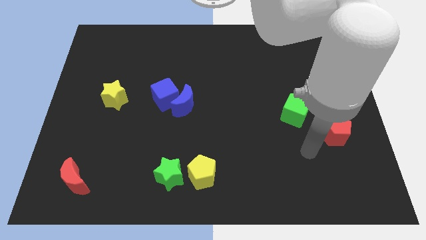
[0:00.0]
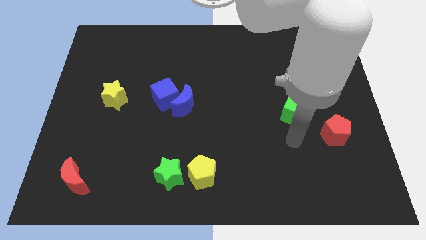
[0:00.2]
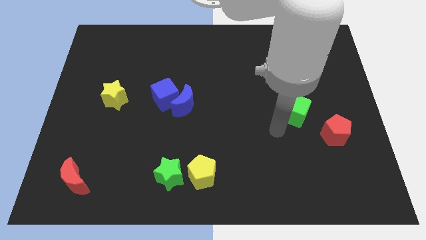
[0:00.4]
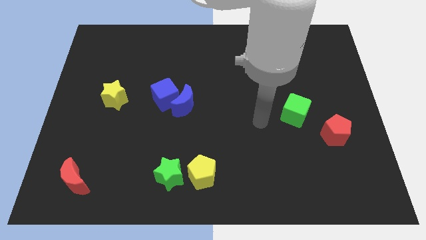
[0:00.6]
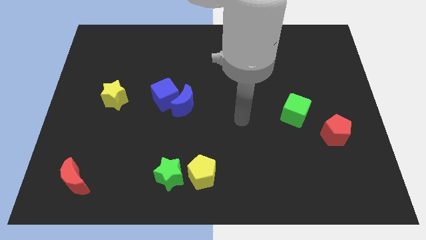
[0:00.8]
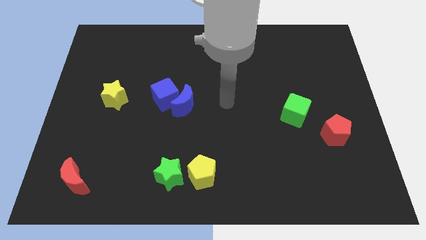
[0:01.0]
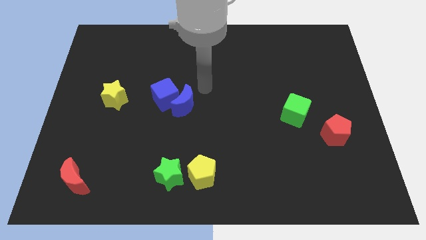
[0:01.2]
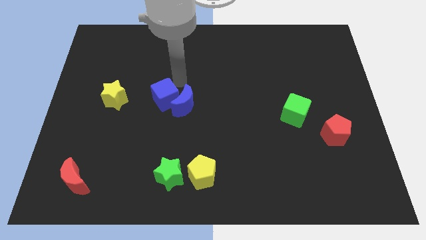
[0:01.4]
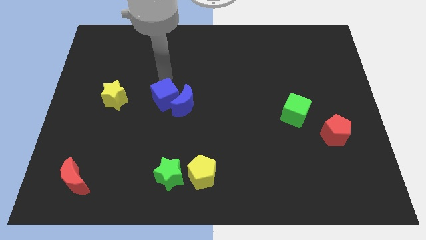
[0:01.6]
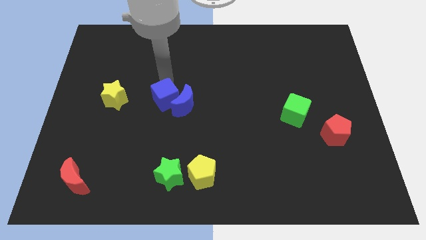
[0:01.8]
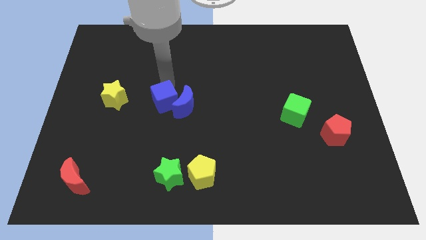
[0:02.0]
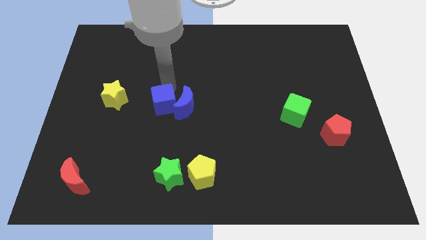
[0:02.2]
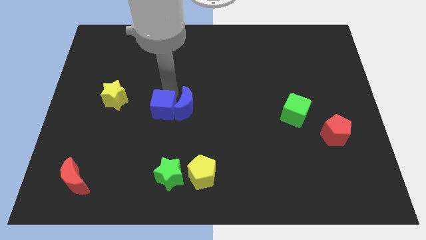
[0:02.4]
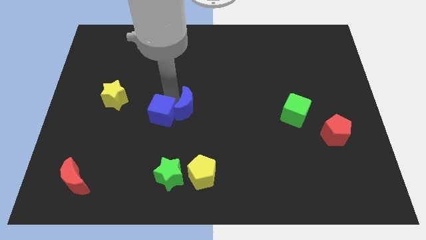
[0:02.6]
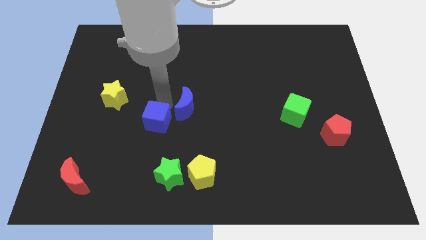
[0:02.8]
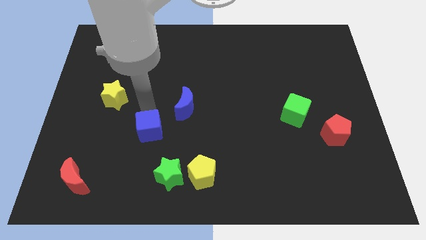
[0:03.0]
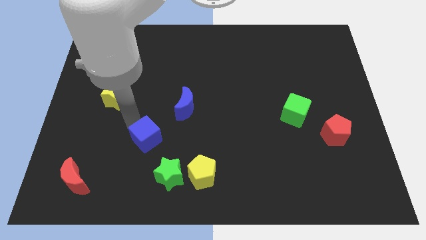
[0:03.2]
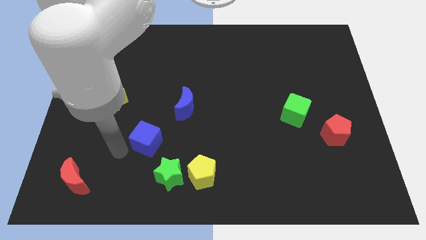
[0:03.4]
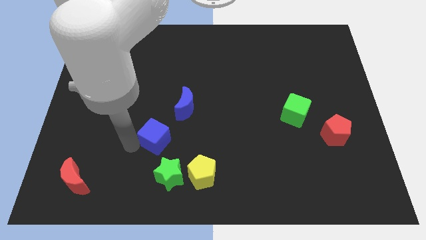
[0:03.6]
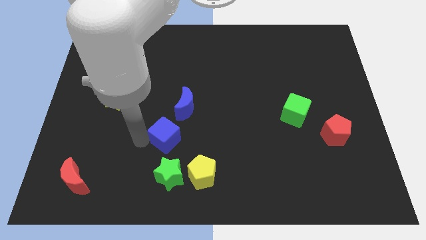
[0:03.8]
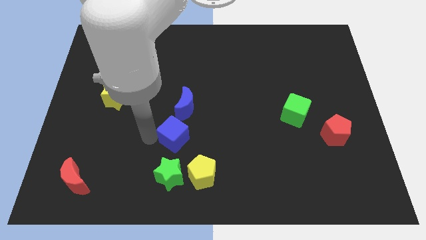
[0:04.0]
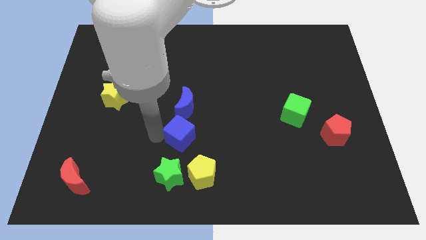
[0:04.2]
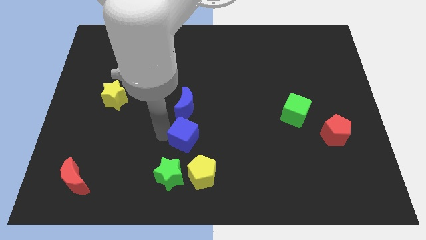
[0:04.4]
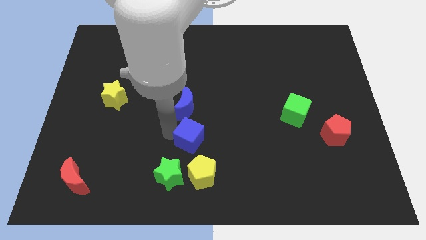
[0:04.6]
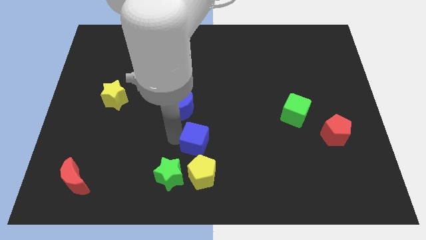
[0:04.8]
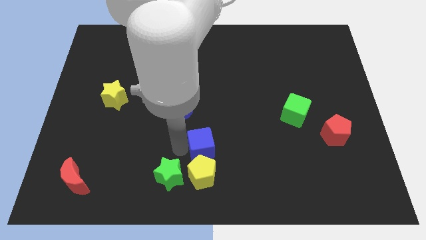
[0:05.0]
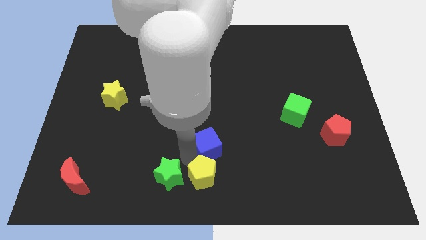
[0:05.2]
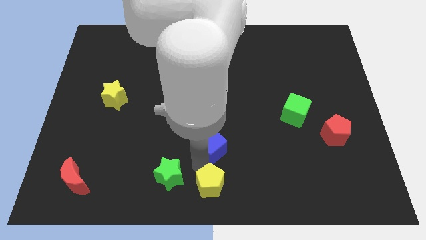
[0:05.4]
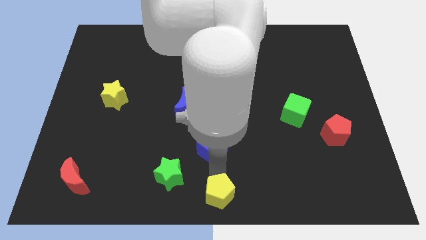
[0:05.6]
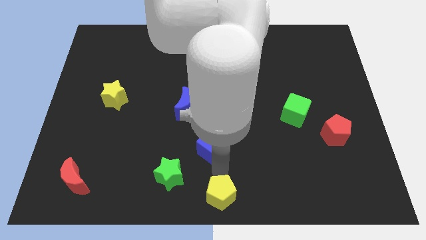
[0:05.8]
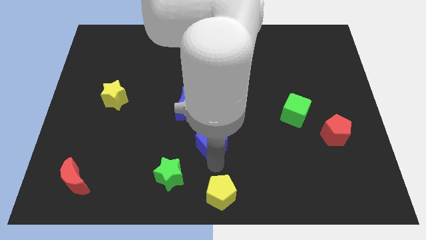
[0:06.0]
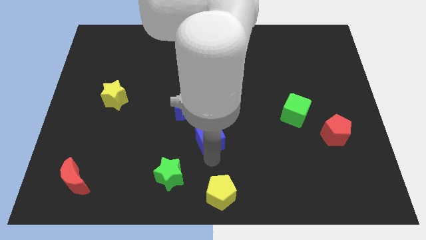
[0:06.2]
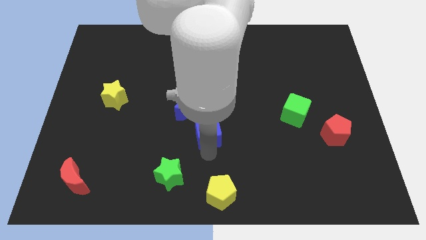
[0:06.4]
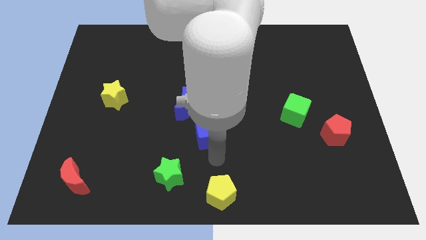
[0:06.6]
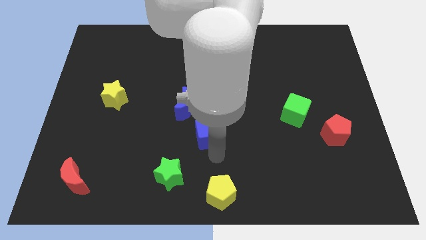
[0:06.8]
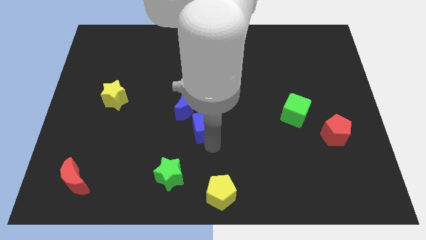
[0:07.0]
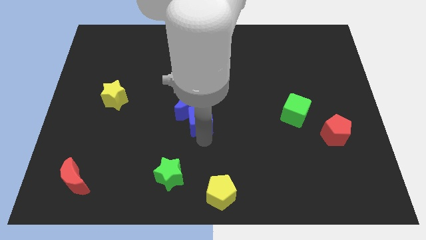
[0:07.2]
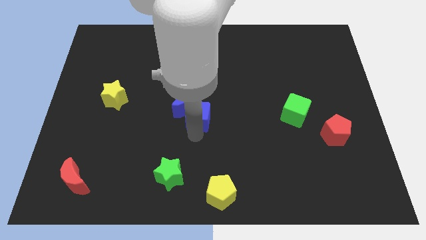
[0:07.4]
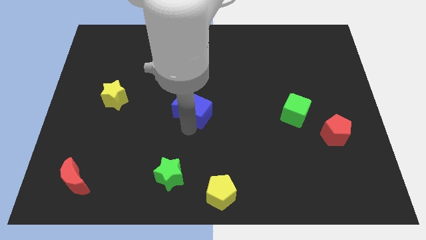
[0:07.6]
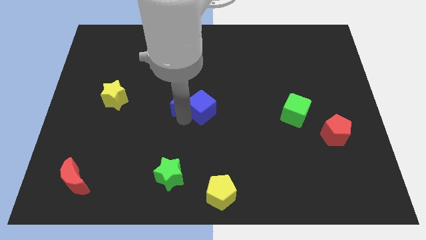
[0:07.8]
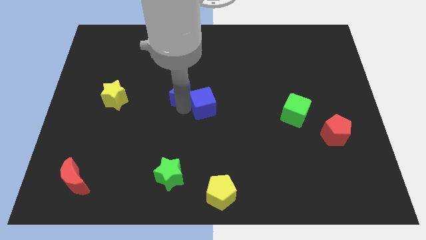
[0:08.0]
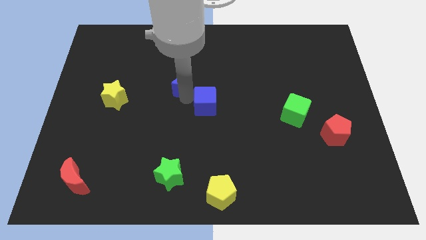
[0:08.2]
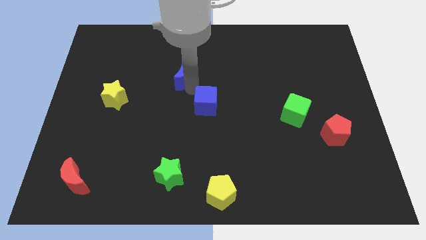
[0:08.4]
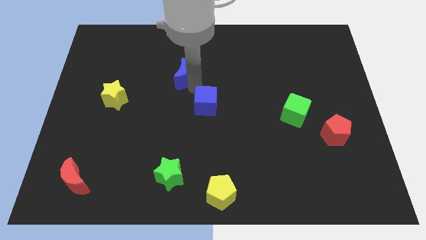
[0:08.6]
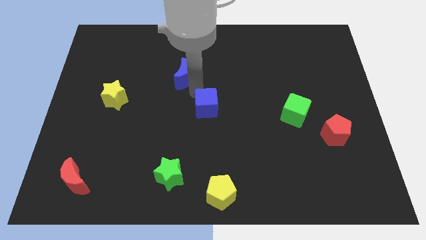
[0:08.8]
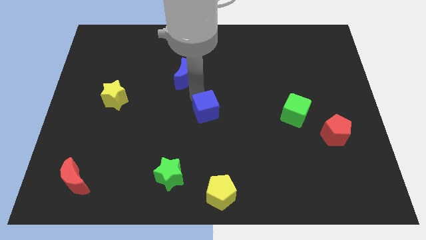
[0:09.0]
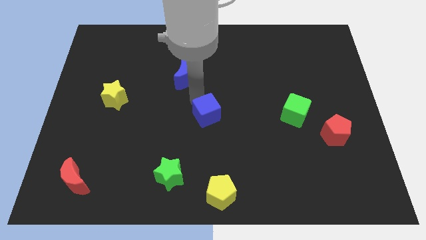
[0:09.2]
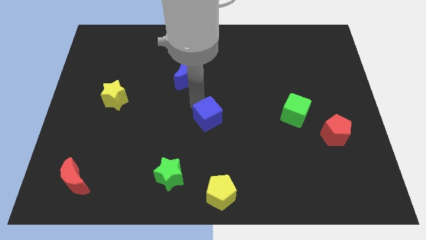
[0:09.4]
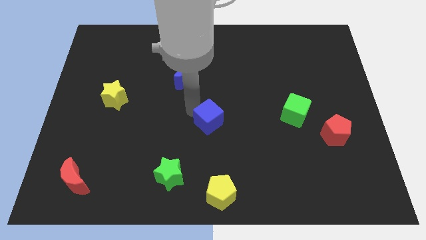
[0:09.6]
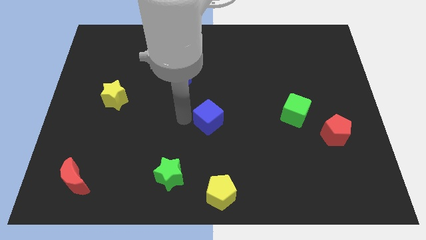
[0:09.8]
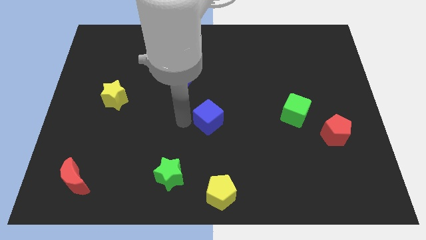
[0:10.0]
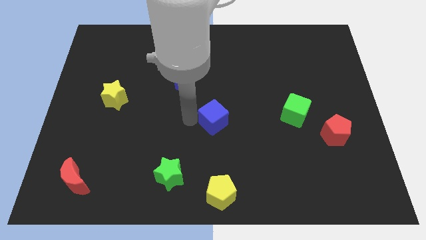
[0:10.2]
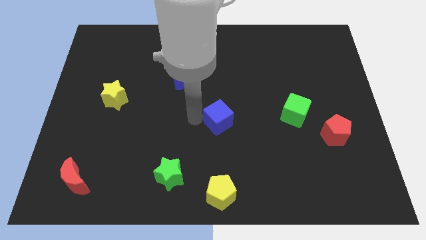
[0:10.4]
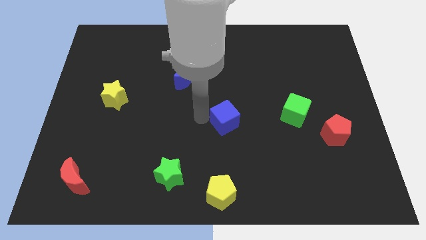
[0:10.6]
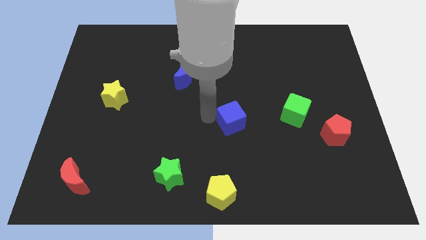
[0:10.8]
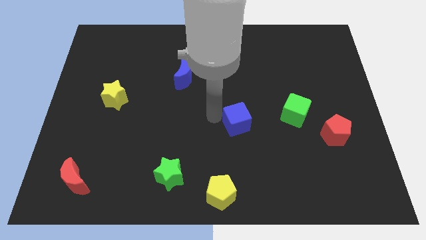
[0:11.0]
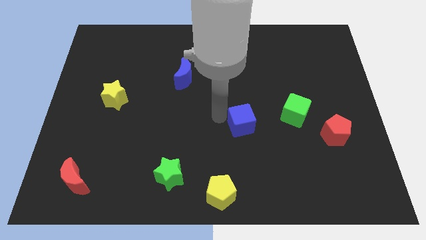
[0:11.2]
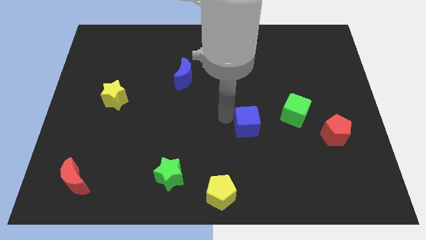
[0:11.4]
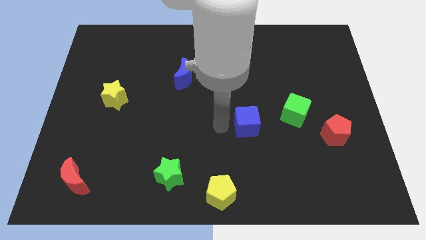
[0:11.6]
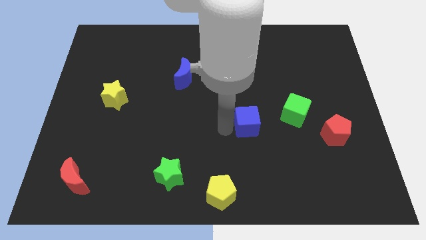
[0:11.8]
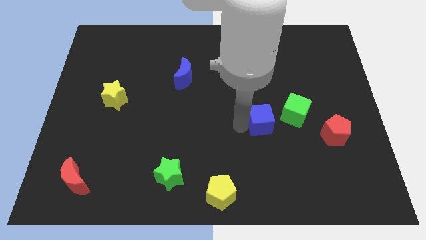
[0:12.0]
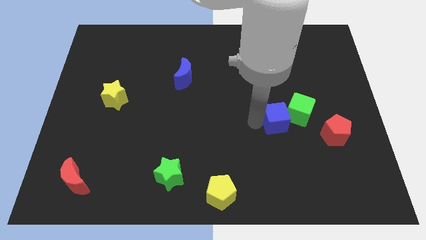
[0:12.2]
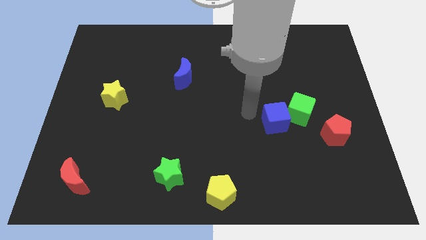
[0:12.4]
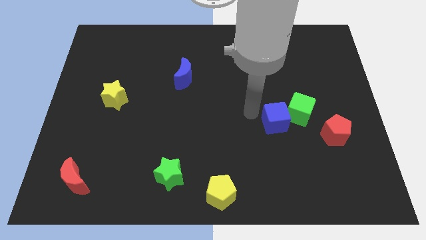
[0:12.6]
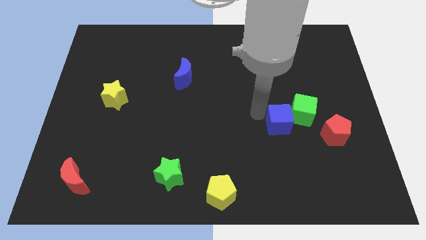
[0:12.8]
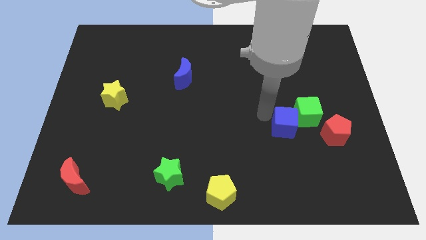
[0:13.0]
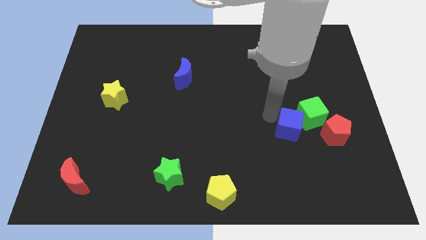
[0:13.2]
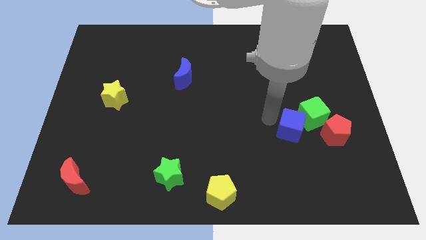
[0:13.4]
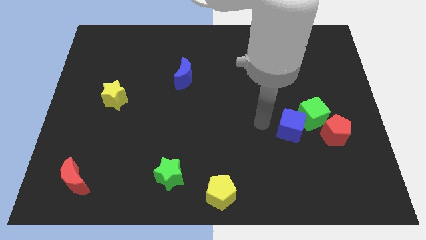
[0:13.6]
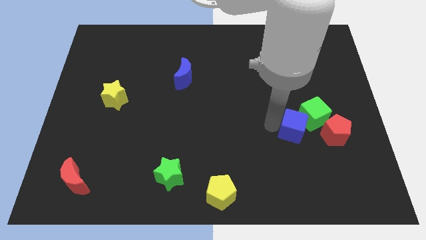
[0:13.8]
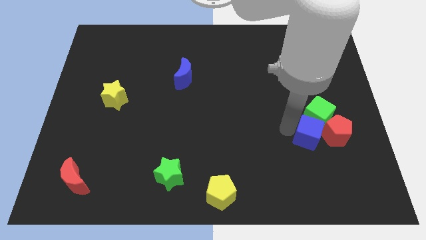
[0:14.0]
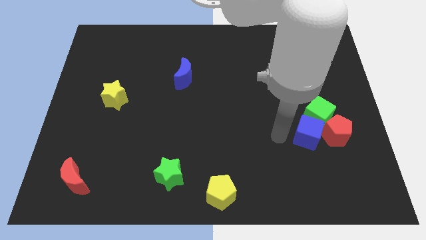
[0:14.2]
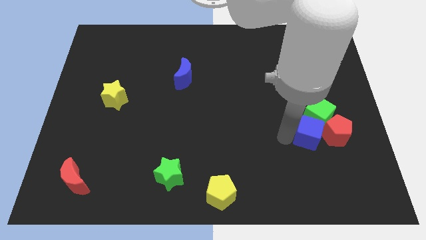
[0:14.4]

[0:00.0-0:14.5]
slide the blue cube next to the red pentagon
